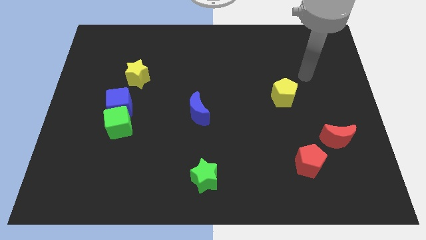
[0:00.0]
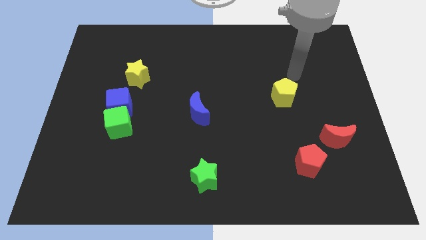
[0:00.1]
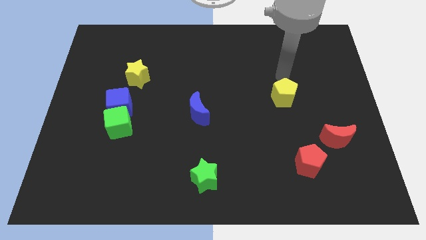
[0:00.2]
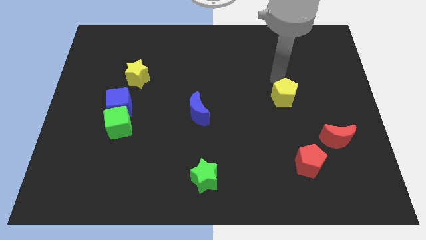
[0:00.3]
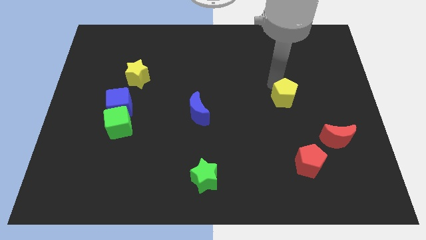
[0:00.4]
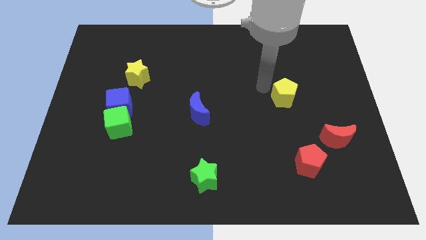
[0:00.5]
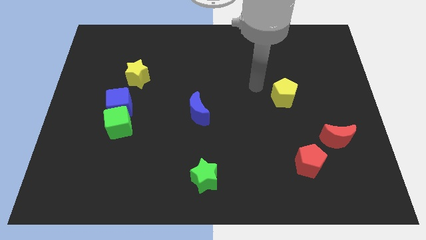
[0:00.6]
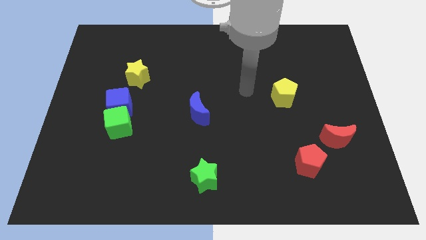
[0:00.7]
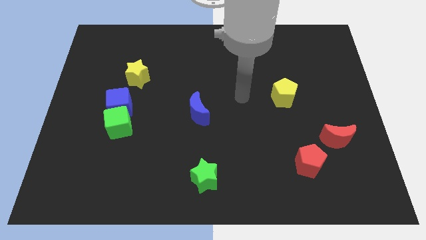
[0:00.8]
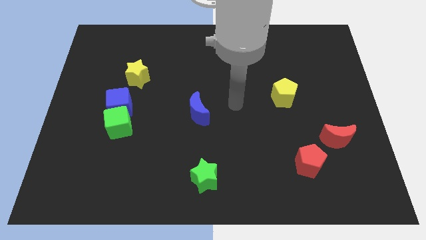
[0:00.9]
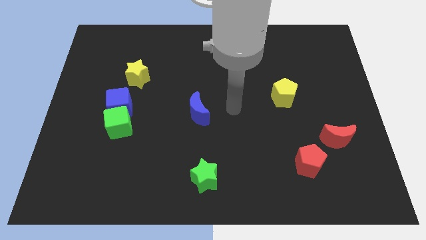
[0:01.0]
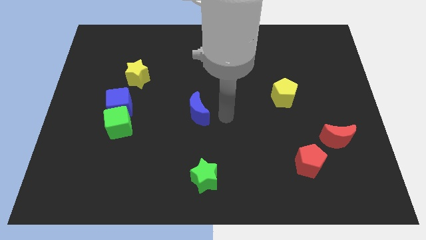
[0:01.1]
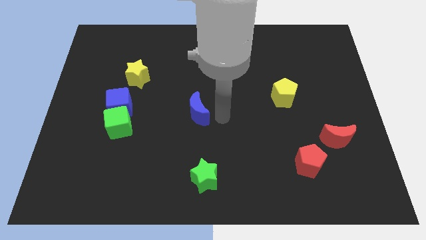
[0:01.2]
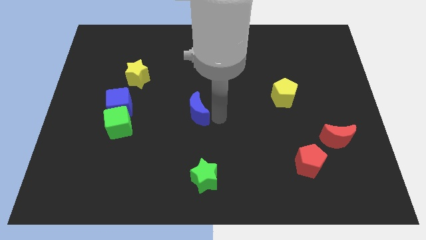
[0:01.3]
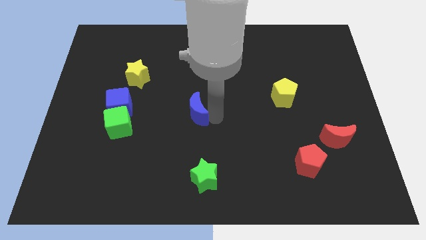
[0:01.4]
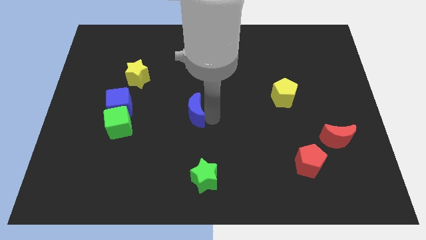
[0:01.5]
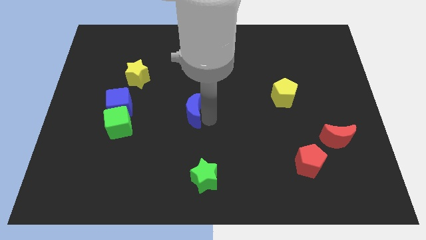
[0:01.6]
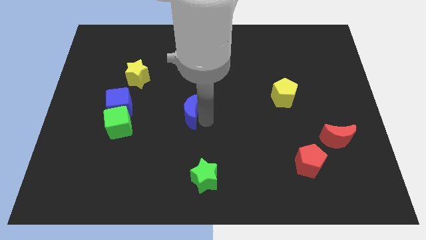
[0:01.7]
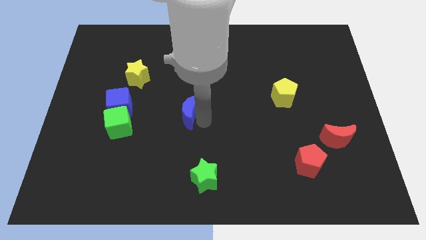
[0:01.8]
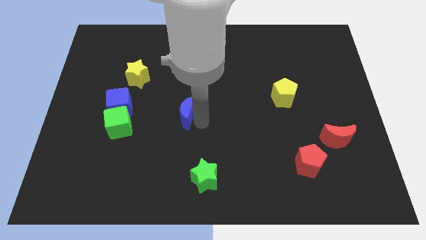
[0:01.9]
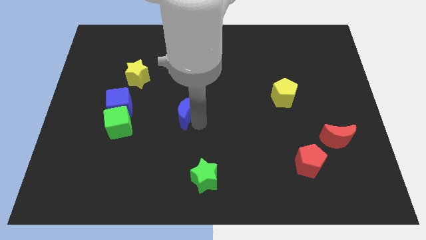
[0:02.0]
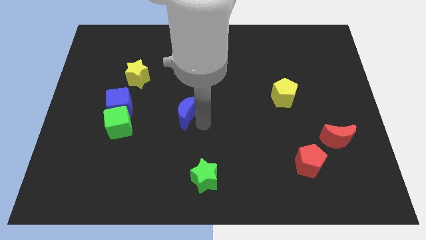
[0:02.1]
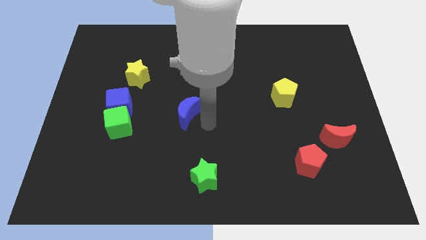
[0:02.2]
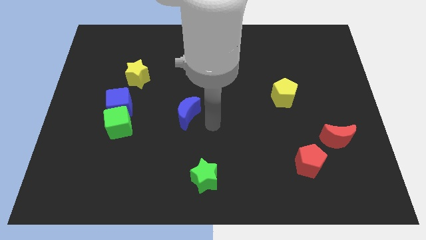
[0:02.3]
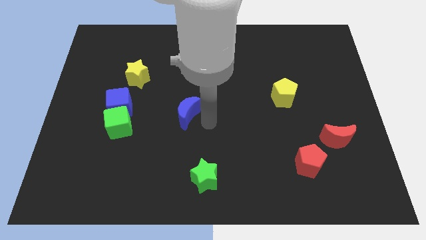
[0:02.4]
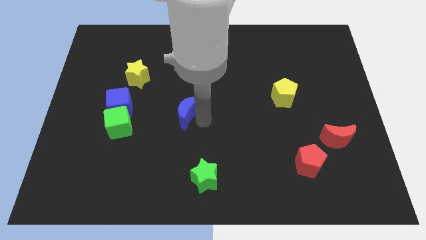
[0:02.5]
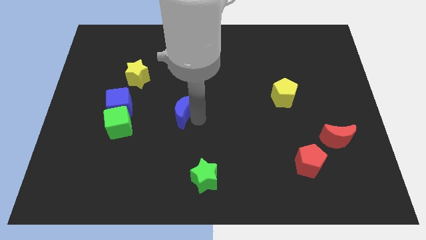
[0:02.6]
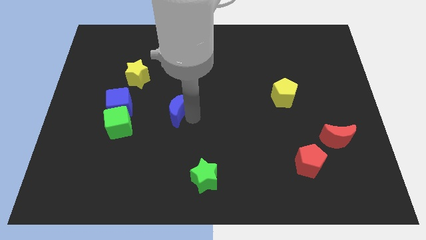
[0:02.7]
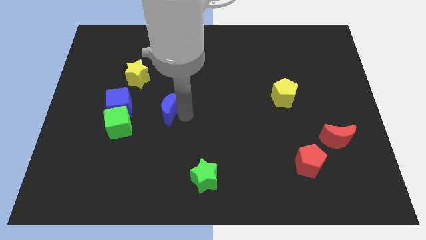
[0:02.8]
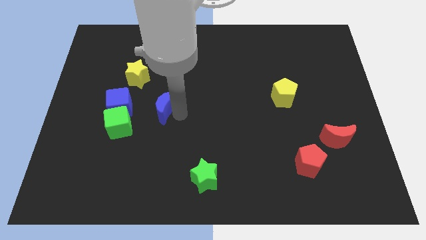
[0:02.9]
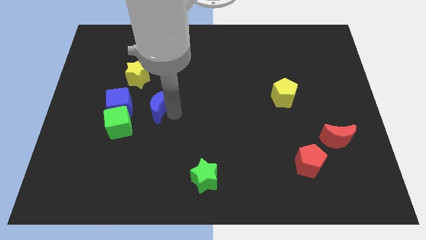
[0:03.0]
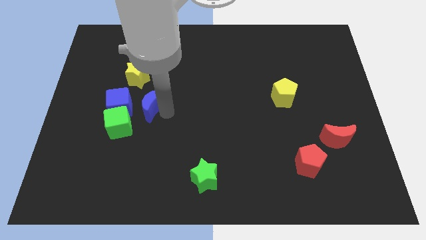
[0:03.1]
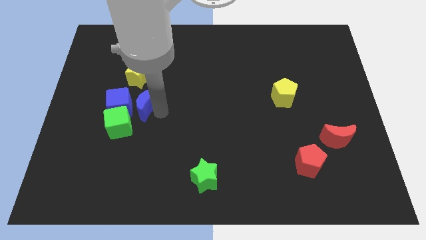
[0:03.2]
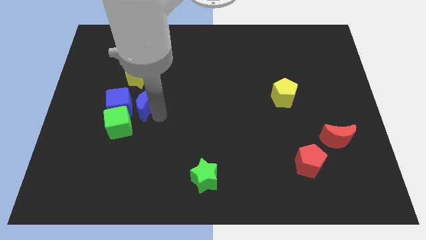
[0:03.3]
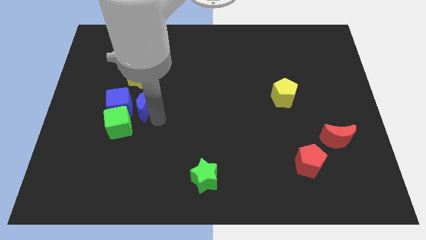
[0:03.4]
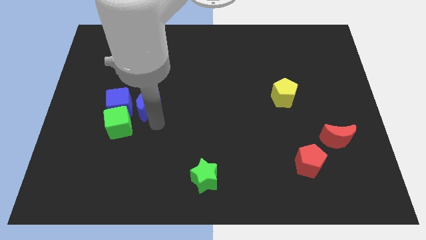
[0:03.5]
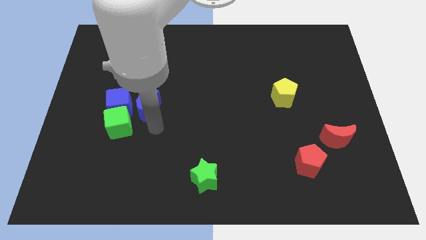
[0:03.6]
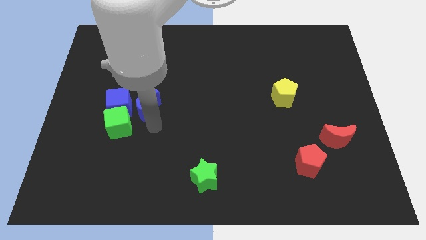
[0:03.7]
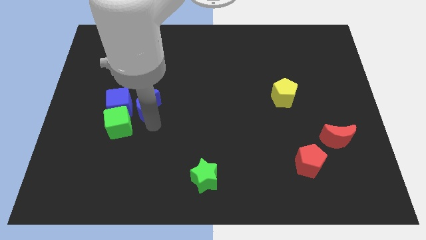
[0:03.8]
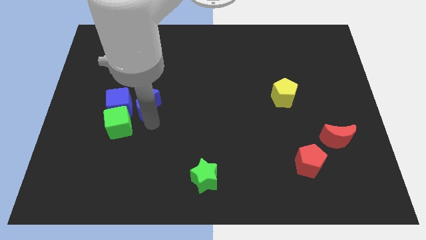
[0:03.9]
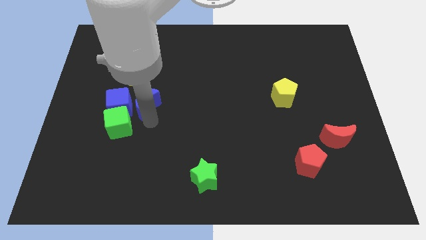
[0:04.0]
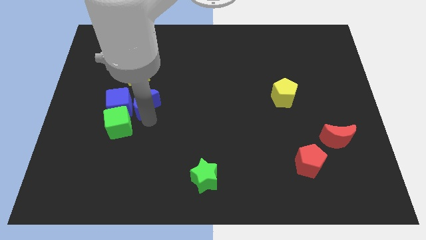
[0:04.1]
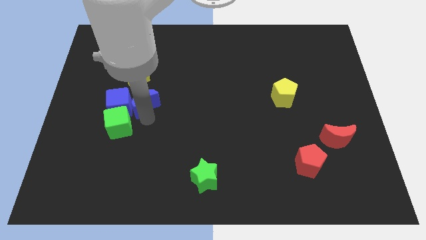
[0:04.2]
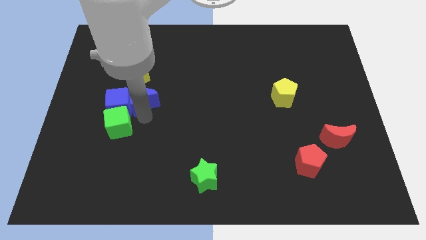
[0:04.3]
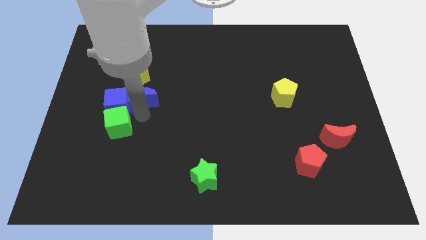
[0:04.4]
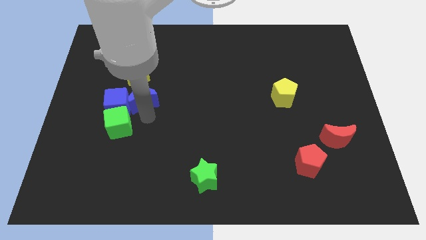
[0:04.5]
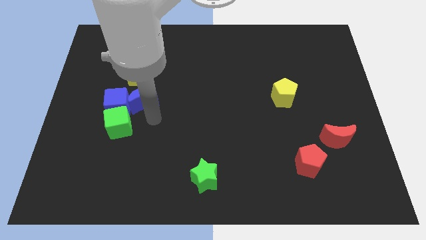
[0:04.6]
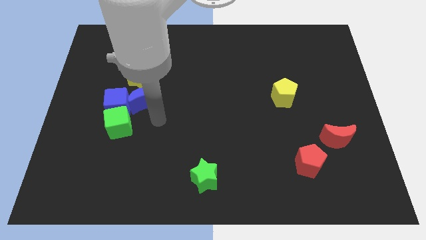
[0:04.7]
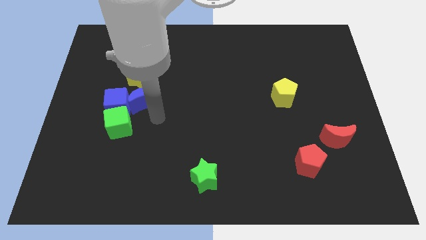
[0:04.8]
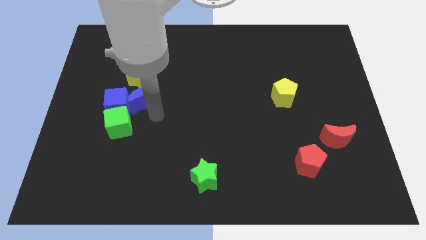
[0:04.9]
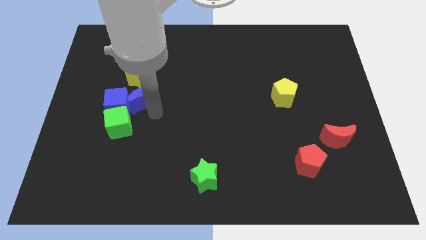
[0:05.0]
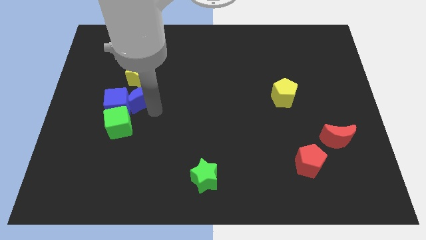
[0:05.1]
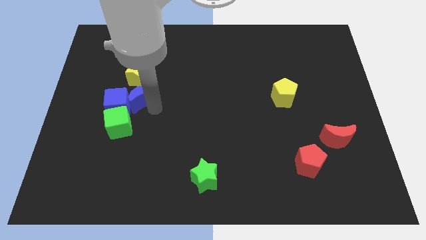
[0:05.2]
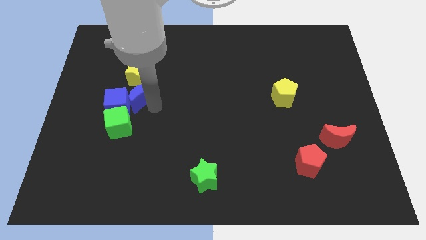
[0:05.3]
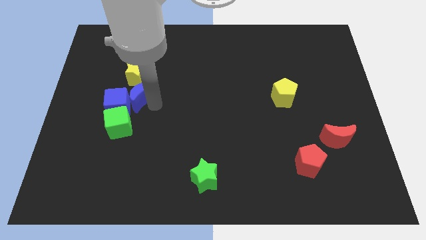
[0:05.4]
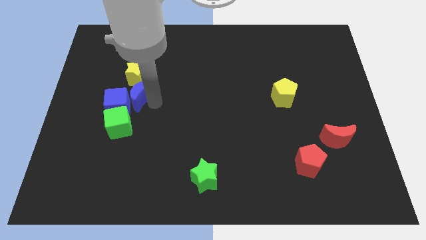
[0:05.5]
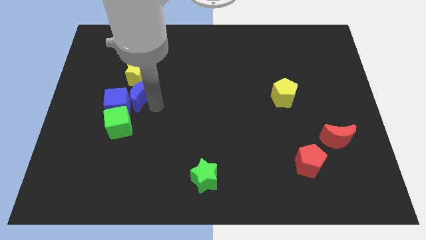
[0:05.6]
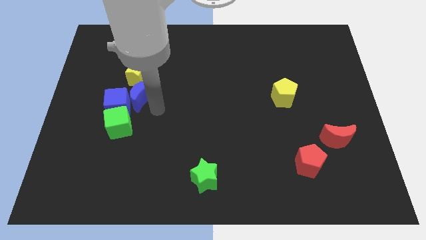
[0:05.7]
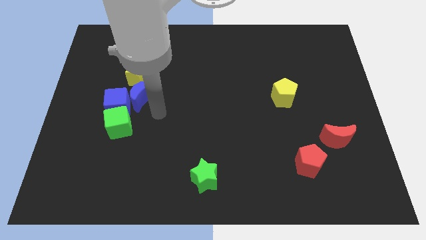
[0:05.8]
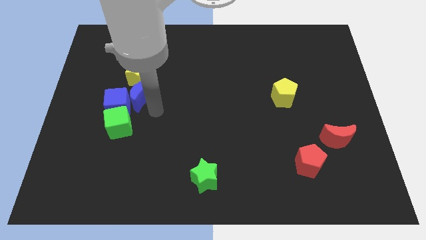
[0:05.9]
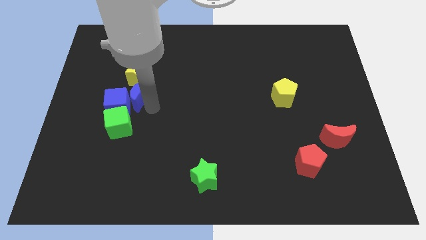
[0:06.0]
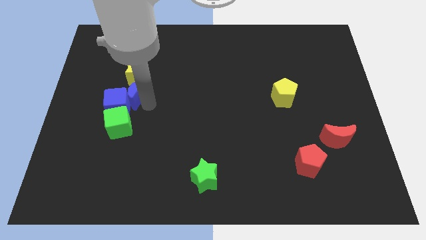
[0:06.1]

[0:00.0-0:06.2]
slide the blue moon to the bottom left of the yellow star

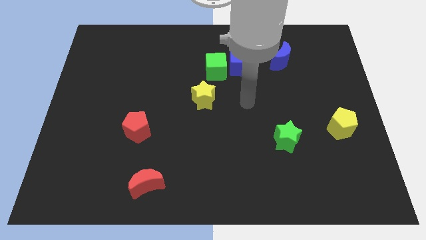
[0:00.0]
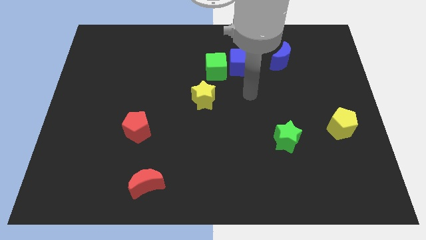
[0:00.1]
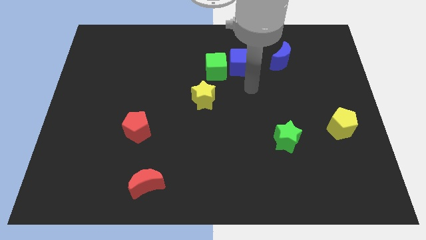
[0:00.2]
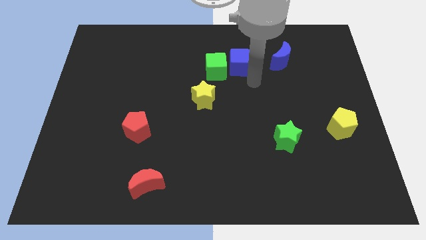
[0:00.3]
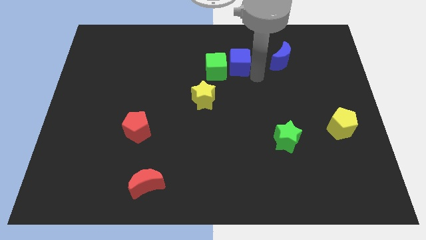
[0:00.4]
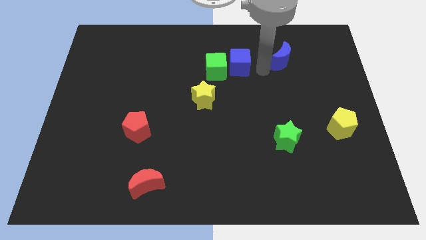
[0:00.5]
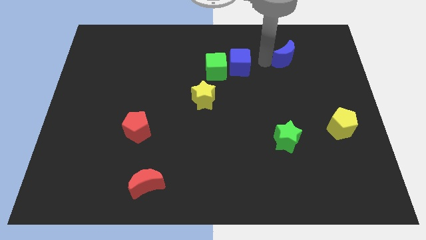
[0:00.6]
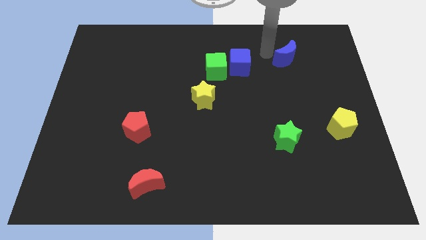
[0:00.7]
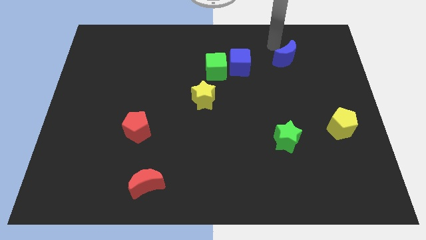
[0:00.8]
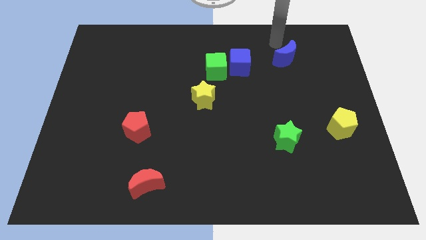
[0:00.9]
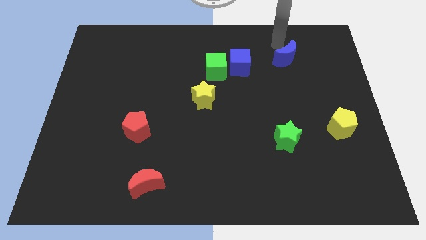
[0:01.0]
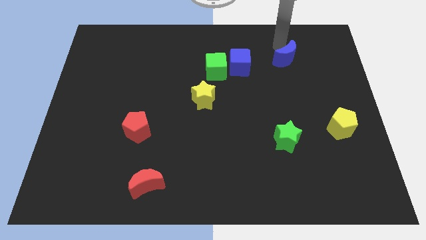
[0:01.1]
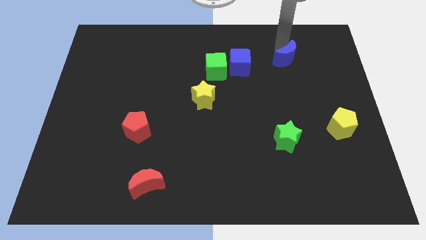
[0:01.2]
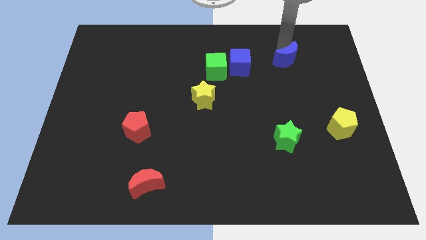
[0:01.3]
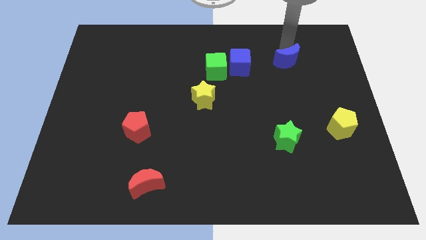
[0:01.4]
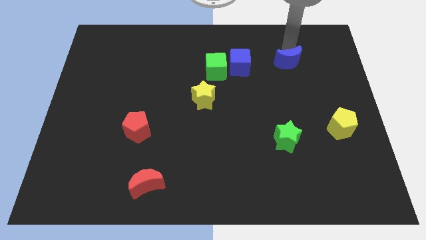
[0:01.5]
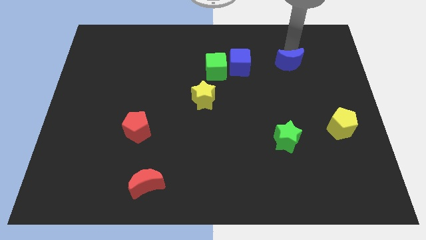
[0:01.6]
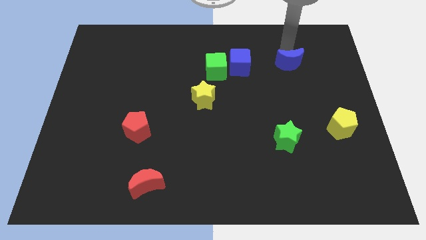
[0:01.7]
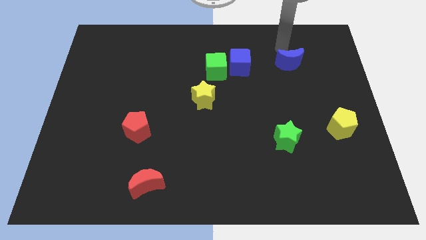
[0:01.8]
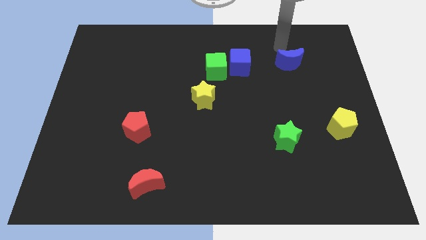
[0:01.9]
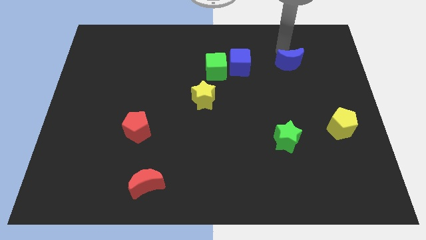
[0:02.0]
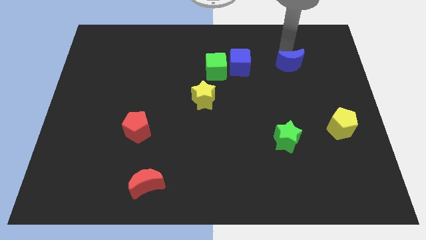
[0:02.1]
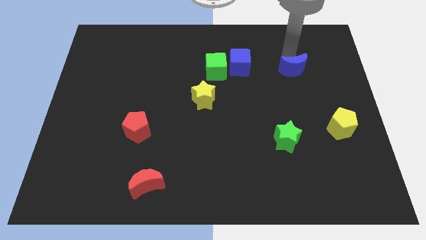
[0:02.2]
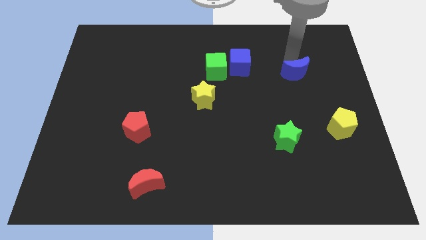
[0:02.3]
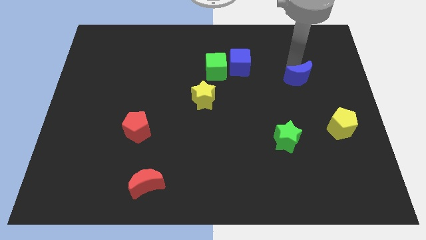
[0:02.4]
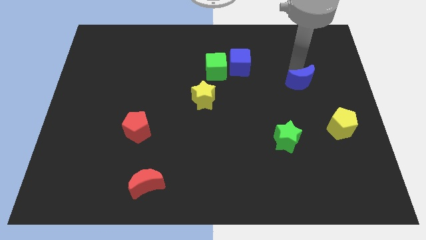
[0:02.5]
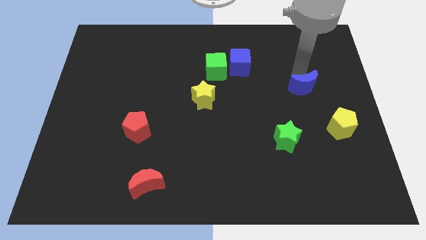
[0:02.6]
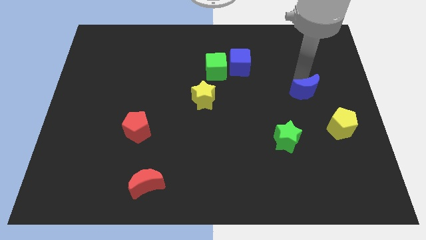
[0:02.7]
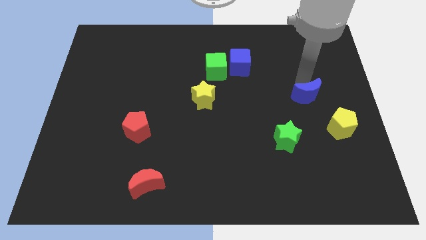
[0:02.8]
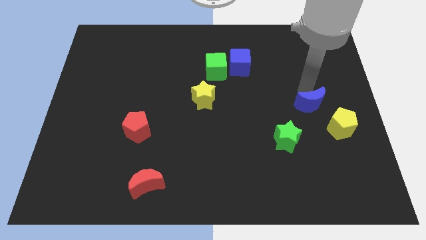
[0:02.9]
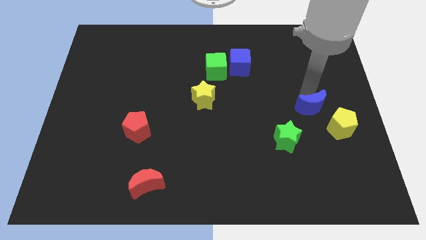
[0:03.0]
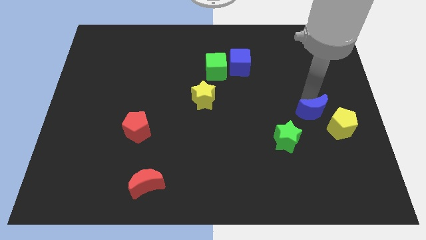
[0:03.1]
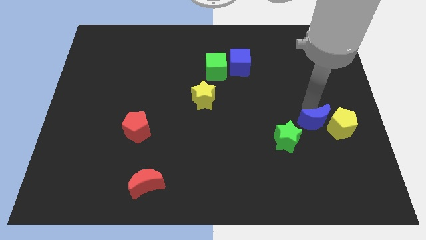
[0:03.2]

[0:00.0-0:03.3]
slide the blue moon just right of the green star
